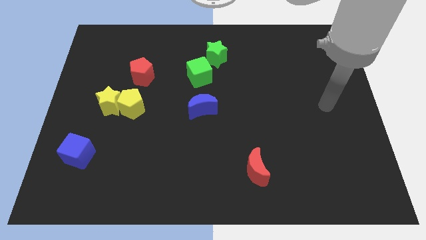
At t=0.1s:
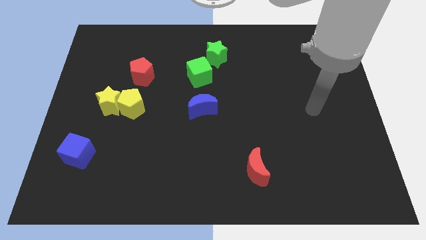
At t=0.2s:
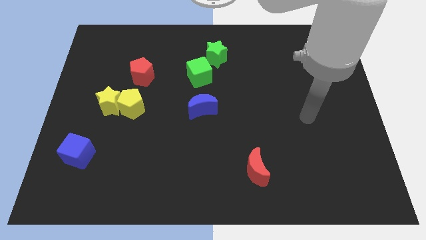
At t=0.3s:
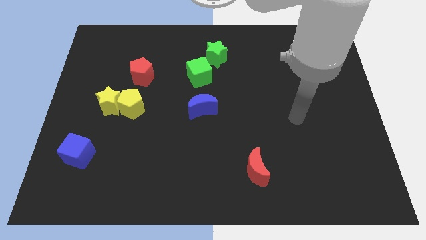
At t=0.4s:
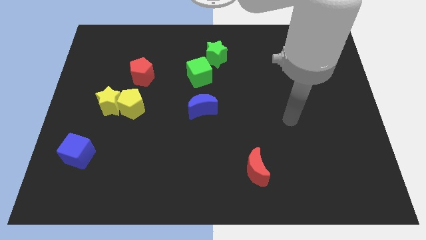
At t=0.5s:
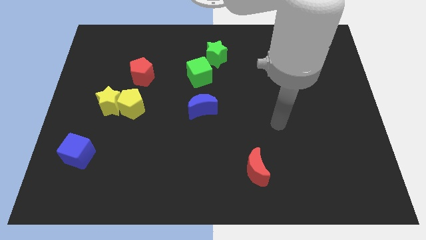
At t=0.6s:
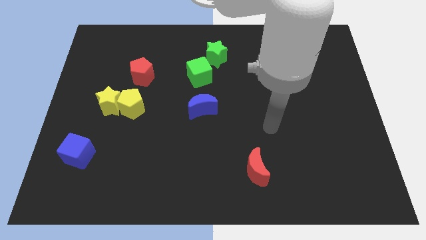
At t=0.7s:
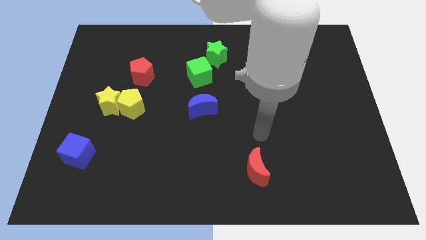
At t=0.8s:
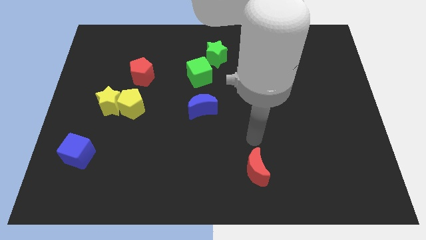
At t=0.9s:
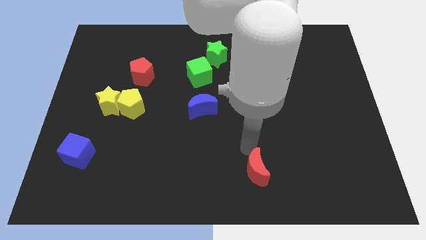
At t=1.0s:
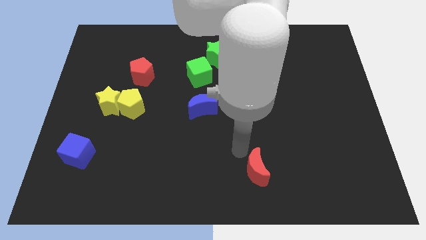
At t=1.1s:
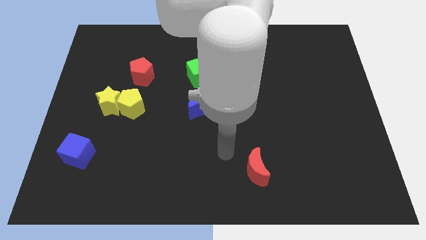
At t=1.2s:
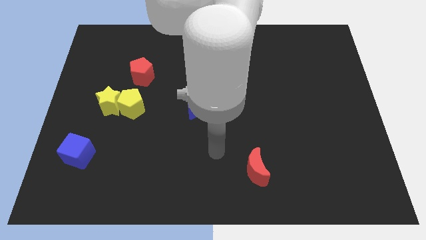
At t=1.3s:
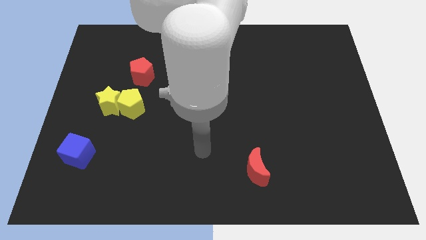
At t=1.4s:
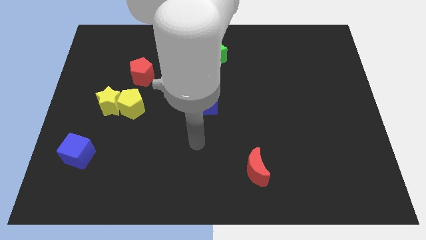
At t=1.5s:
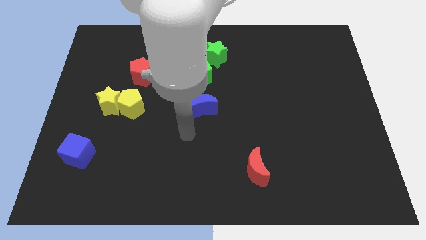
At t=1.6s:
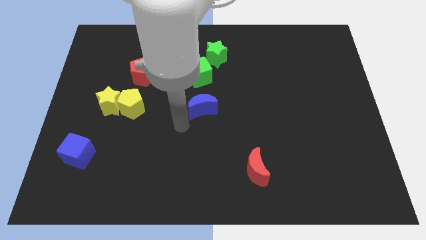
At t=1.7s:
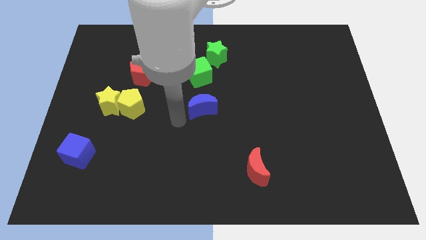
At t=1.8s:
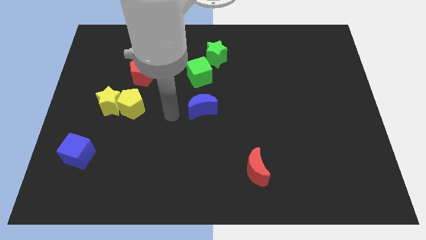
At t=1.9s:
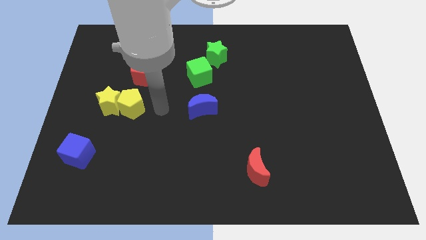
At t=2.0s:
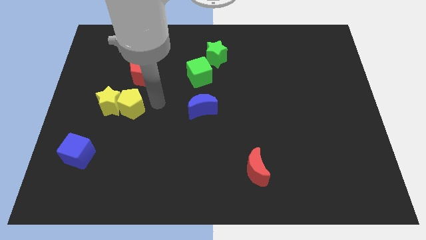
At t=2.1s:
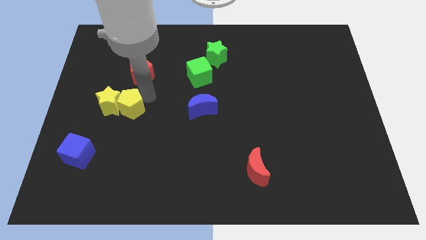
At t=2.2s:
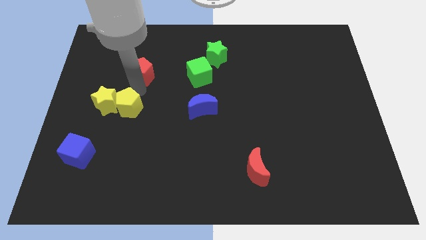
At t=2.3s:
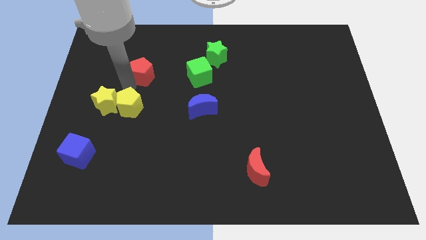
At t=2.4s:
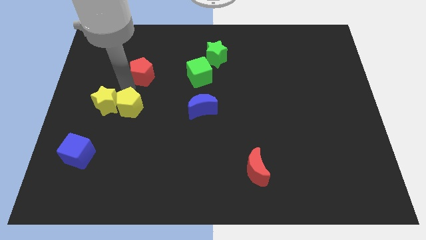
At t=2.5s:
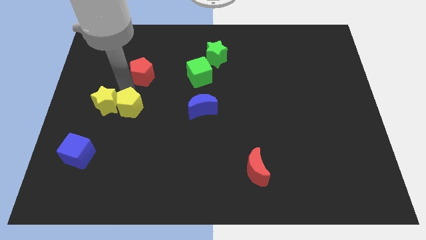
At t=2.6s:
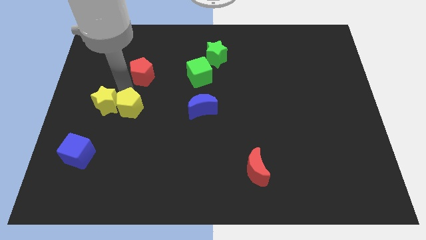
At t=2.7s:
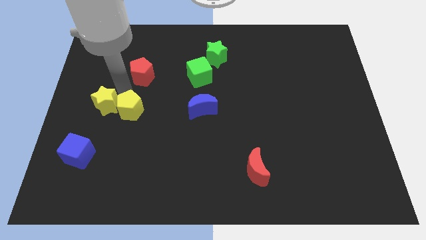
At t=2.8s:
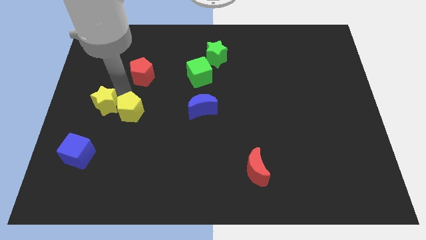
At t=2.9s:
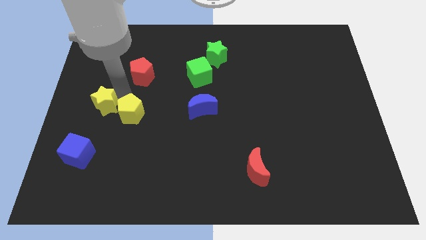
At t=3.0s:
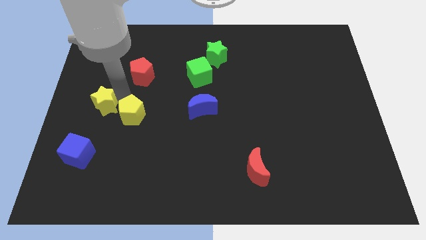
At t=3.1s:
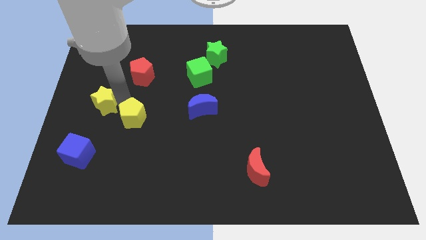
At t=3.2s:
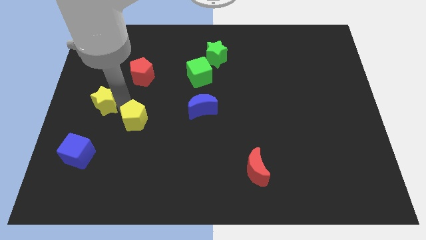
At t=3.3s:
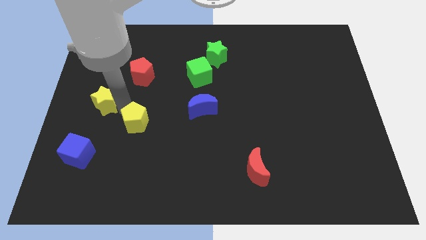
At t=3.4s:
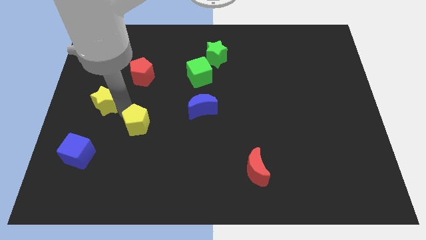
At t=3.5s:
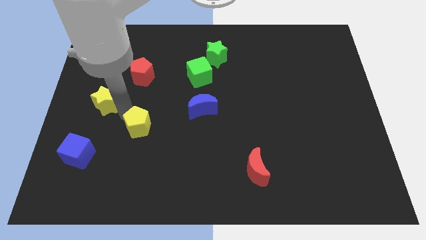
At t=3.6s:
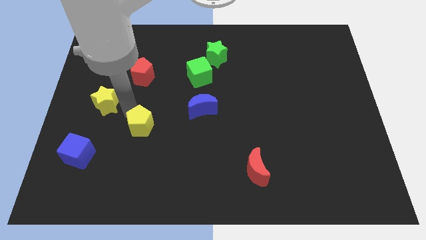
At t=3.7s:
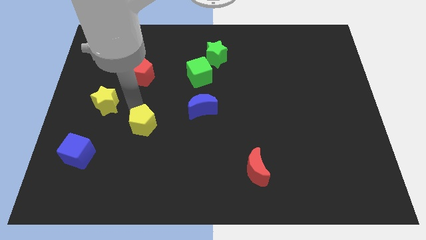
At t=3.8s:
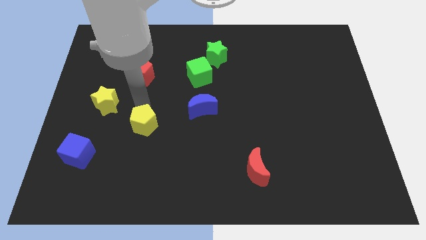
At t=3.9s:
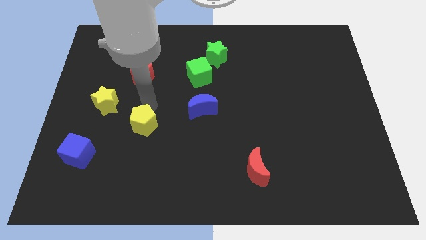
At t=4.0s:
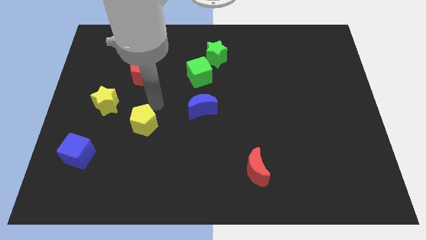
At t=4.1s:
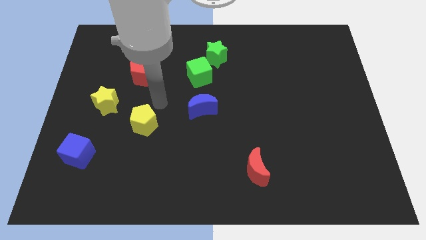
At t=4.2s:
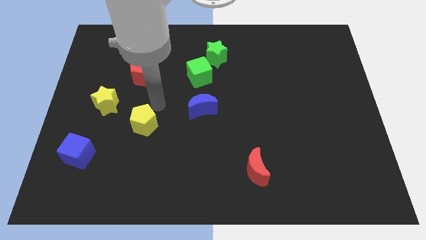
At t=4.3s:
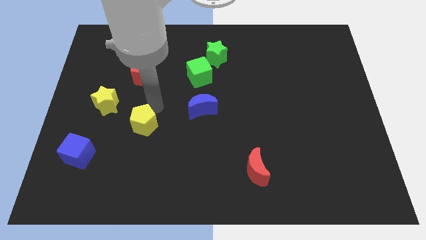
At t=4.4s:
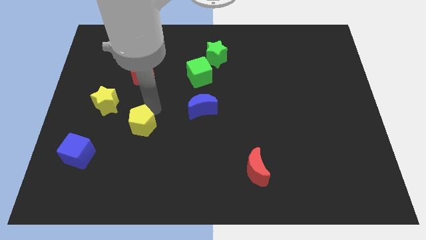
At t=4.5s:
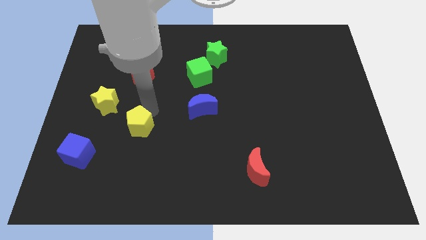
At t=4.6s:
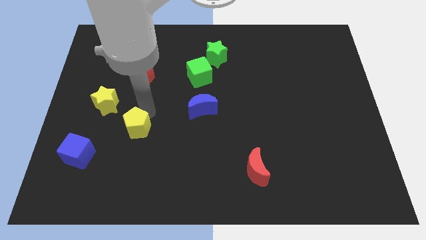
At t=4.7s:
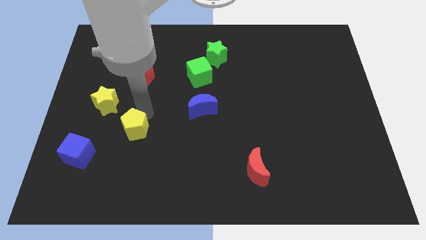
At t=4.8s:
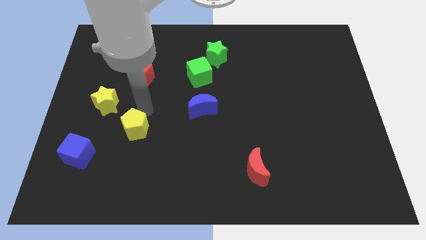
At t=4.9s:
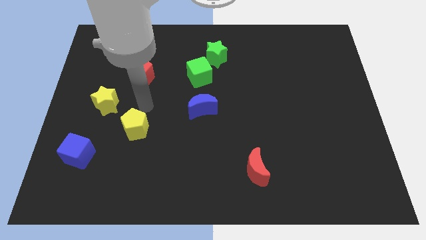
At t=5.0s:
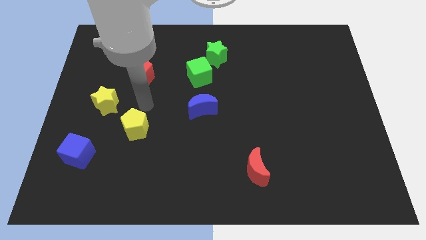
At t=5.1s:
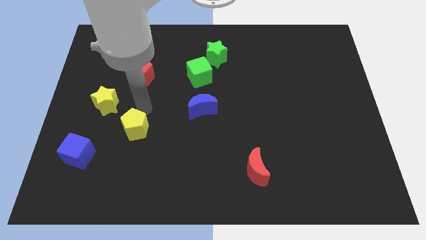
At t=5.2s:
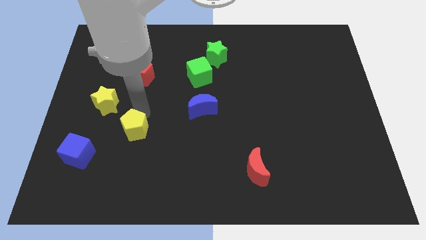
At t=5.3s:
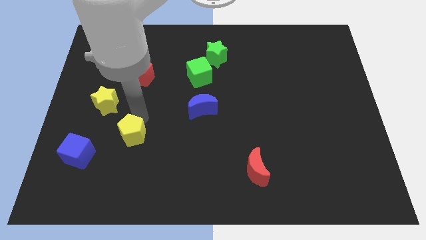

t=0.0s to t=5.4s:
slightly slide the yellow pentagon downwards

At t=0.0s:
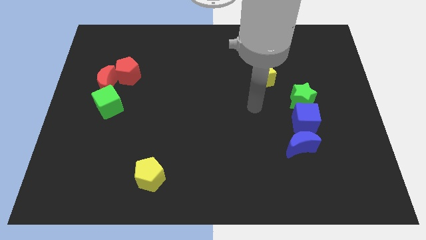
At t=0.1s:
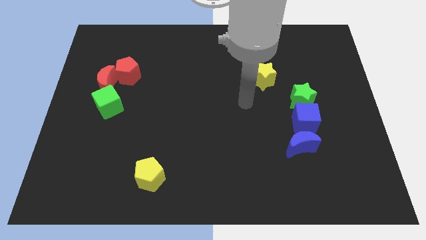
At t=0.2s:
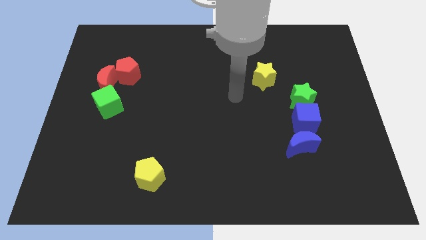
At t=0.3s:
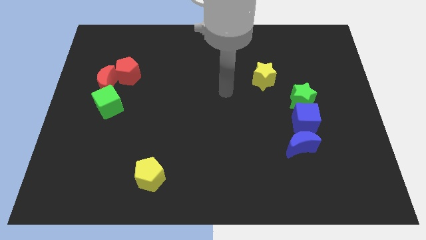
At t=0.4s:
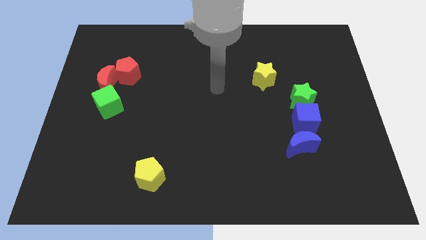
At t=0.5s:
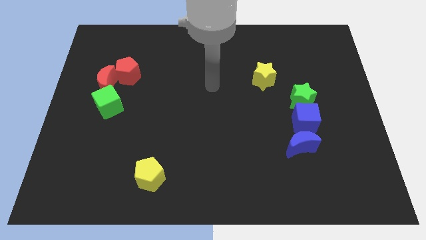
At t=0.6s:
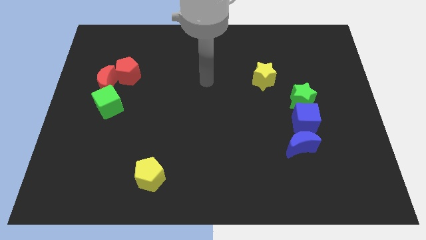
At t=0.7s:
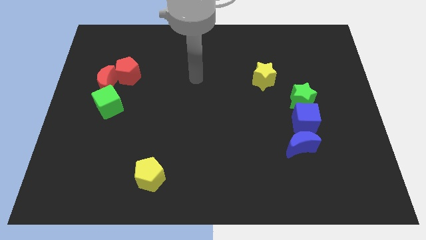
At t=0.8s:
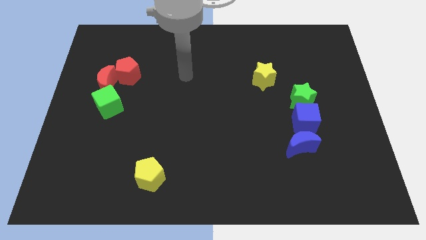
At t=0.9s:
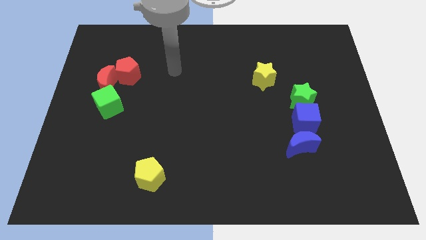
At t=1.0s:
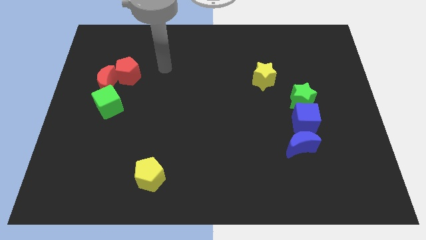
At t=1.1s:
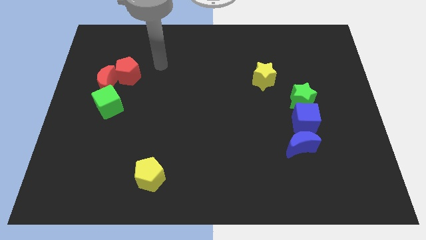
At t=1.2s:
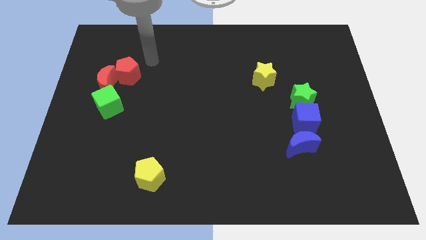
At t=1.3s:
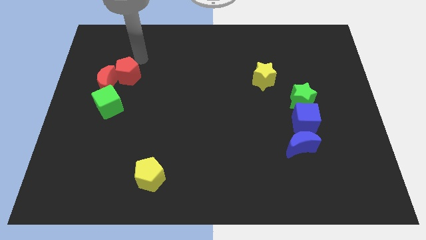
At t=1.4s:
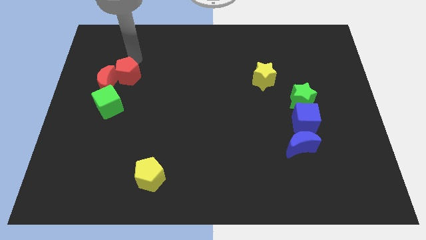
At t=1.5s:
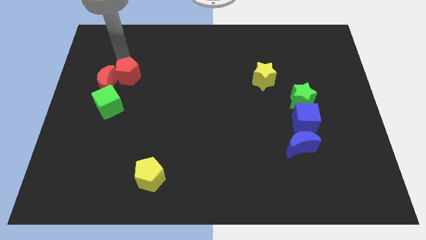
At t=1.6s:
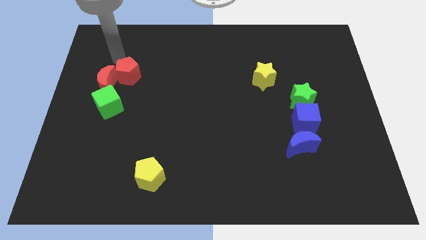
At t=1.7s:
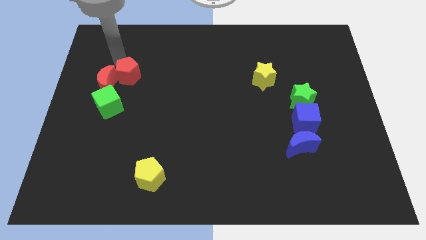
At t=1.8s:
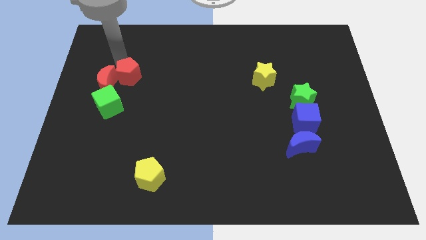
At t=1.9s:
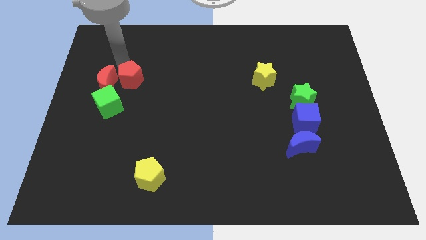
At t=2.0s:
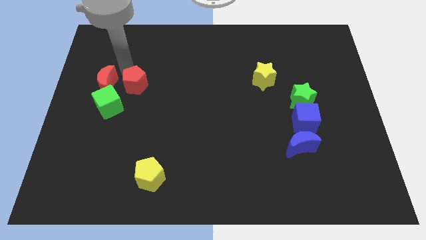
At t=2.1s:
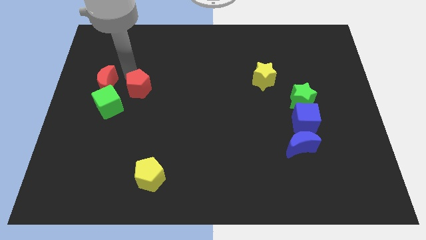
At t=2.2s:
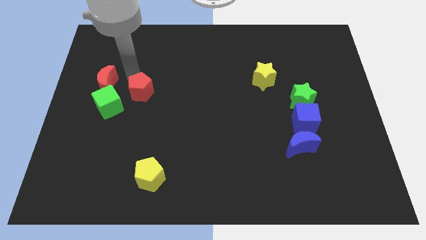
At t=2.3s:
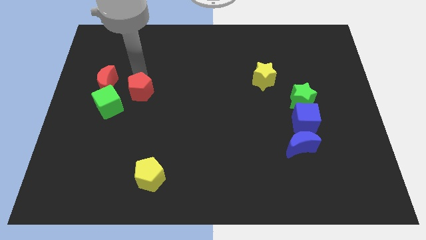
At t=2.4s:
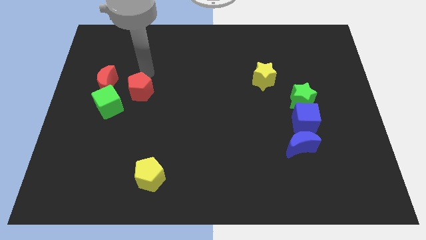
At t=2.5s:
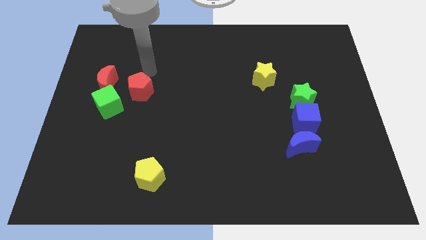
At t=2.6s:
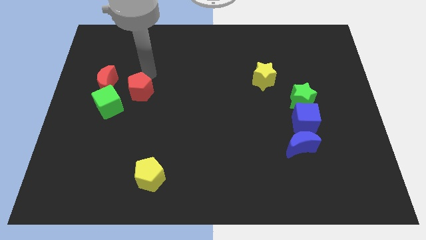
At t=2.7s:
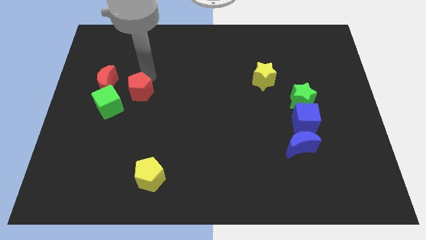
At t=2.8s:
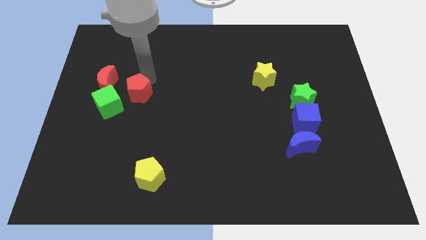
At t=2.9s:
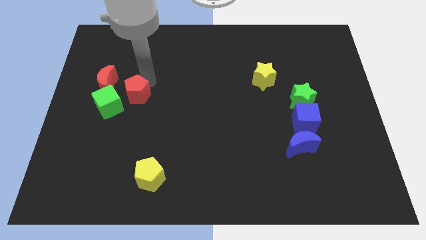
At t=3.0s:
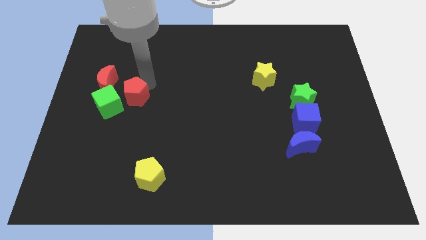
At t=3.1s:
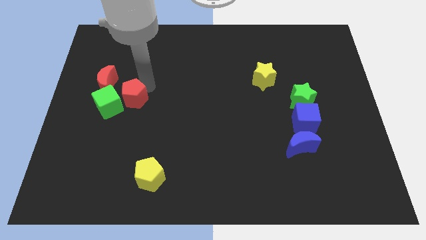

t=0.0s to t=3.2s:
slide the red pentagon downwards somewhat
